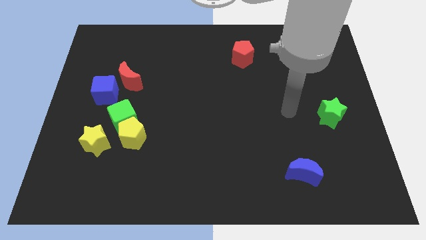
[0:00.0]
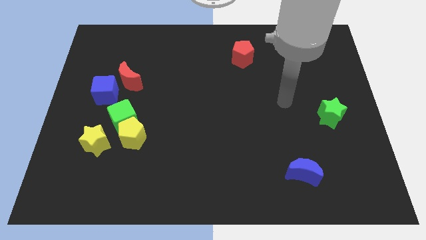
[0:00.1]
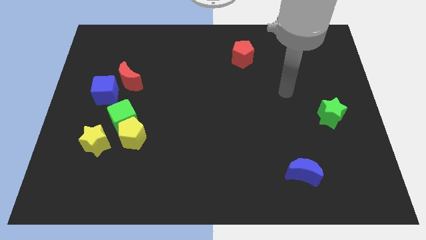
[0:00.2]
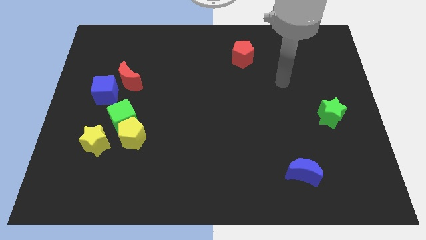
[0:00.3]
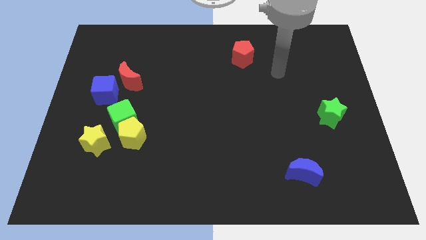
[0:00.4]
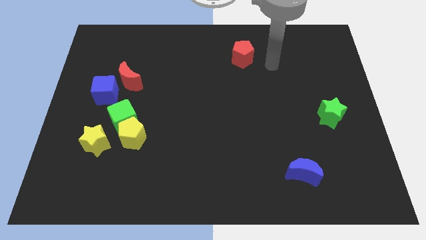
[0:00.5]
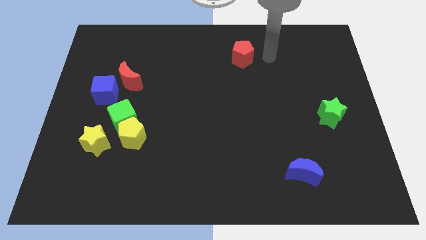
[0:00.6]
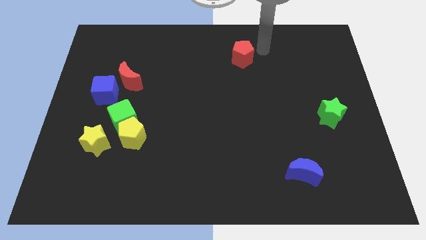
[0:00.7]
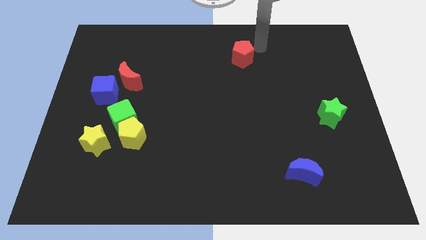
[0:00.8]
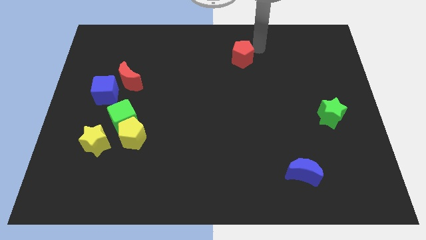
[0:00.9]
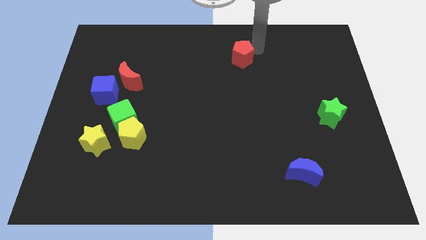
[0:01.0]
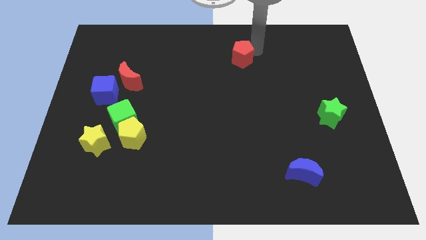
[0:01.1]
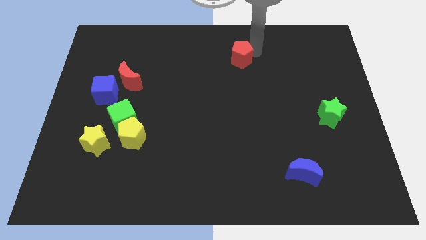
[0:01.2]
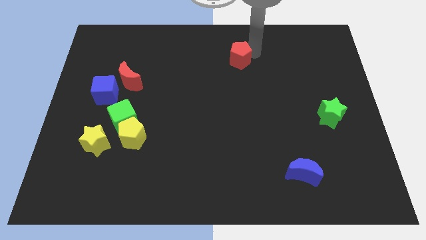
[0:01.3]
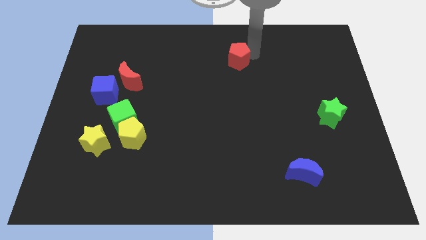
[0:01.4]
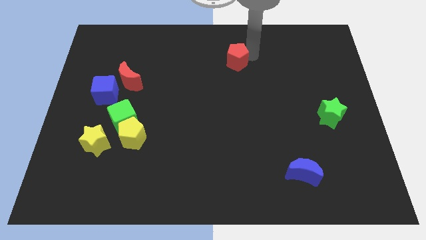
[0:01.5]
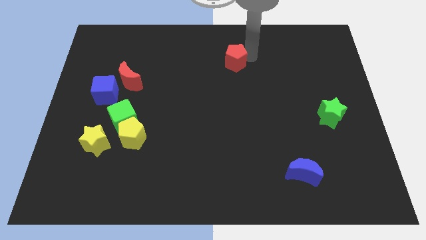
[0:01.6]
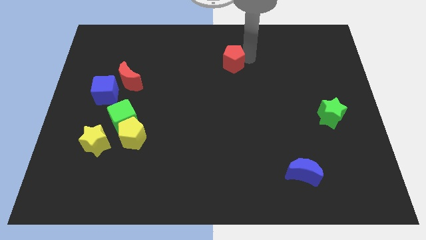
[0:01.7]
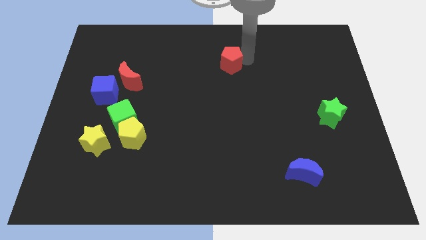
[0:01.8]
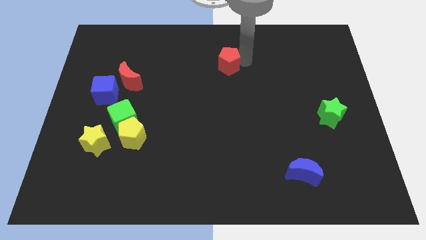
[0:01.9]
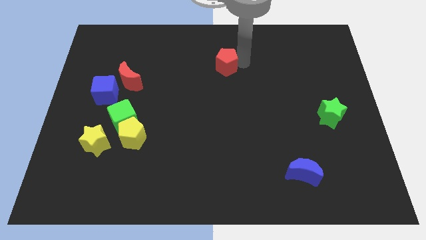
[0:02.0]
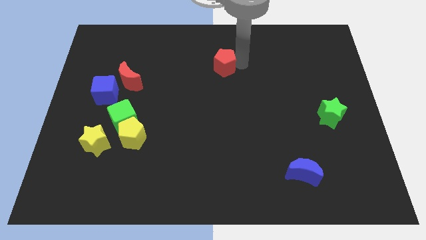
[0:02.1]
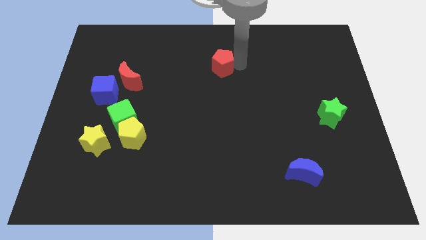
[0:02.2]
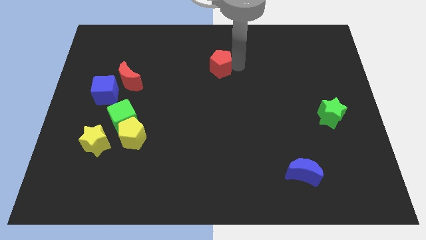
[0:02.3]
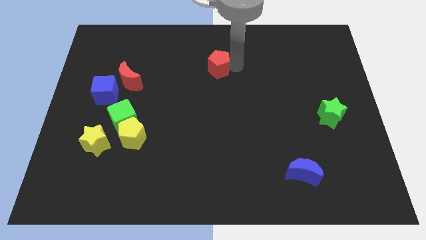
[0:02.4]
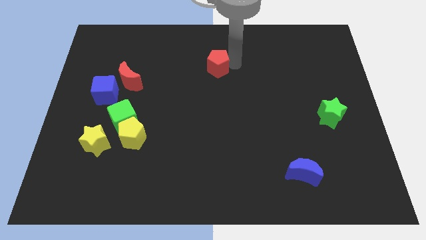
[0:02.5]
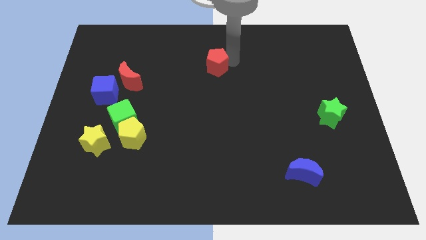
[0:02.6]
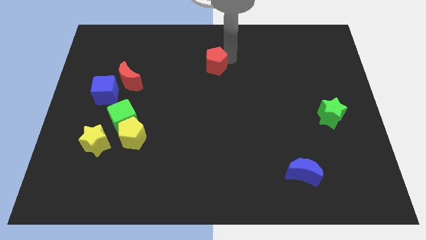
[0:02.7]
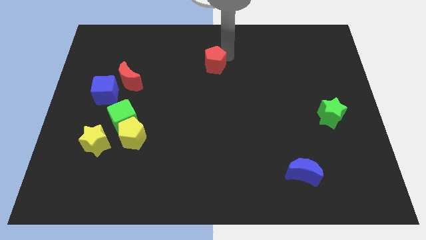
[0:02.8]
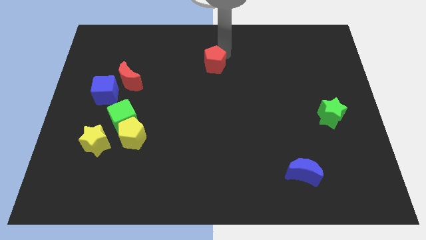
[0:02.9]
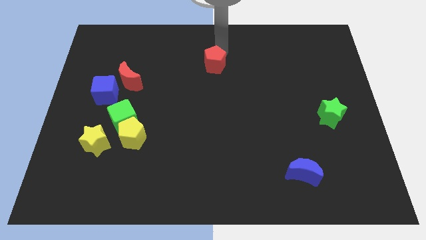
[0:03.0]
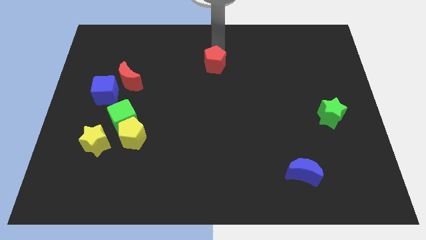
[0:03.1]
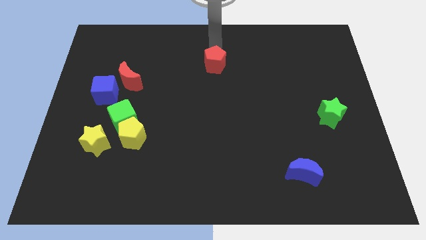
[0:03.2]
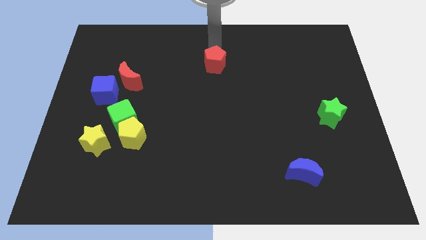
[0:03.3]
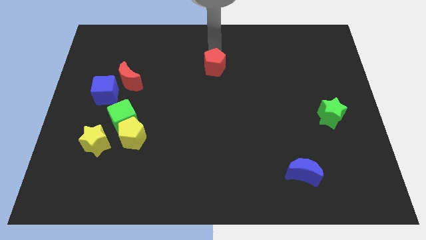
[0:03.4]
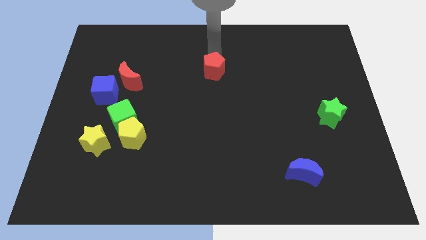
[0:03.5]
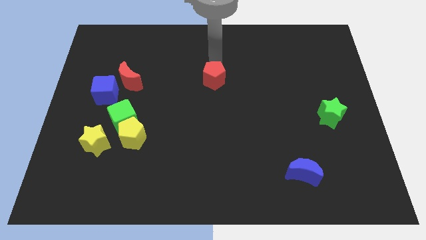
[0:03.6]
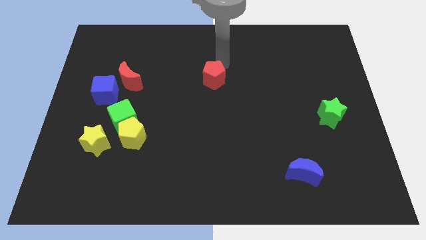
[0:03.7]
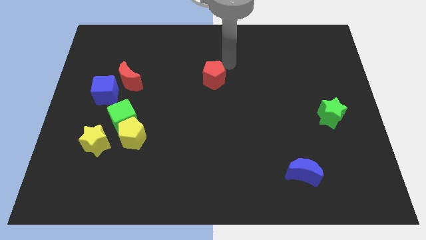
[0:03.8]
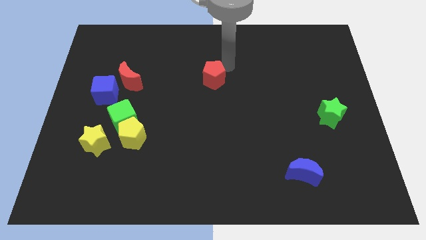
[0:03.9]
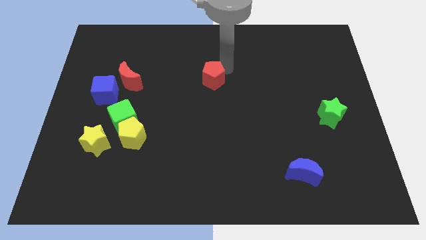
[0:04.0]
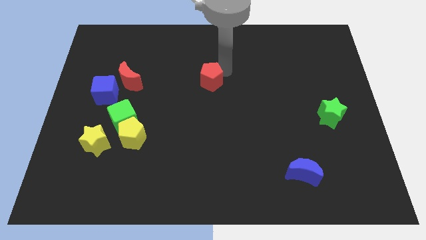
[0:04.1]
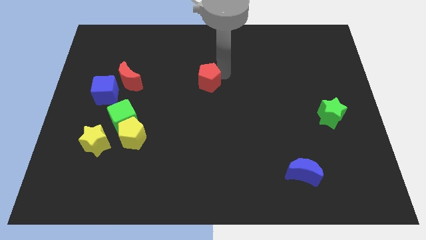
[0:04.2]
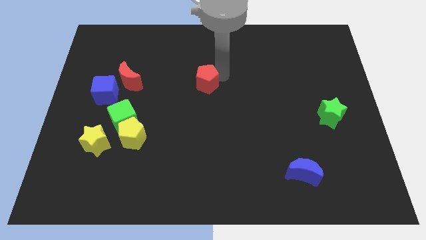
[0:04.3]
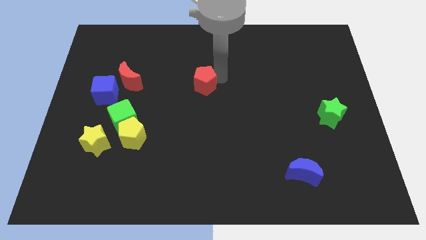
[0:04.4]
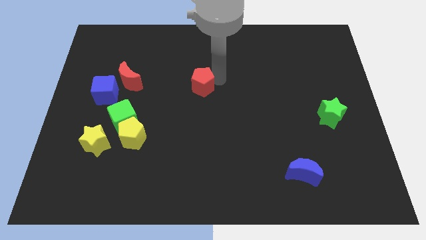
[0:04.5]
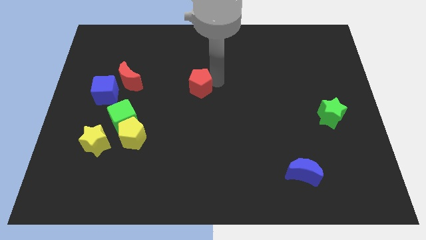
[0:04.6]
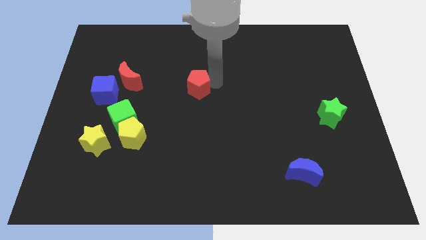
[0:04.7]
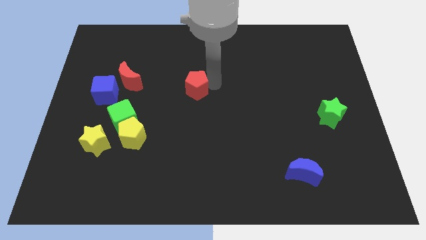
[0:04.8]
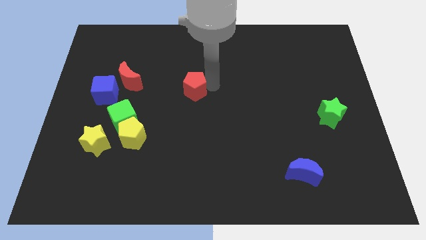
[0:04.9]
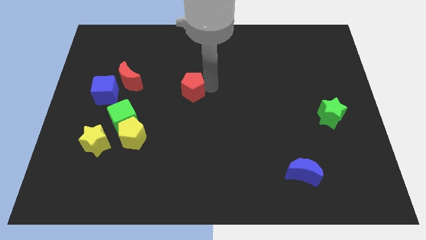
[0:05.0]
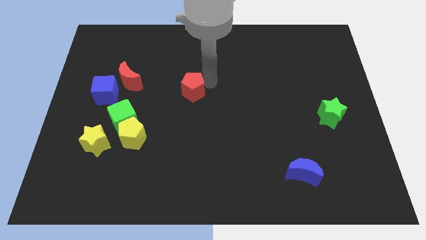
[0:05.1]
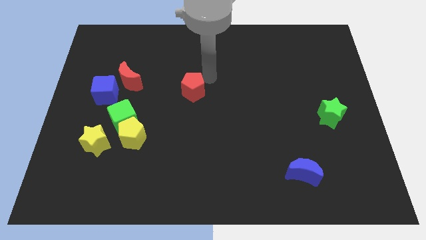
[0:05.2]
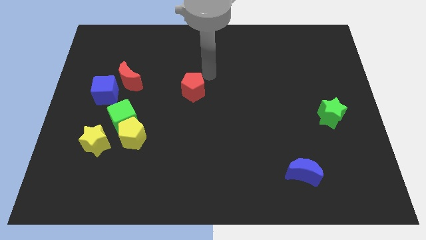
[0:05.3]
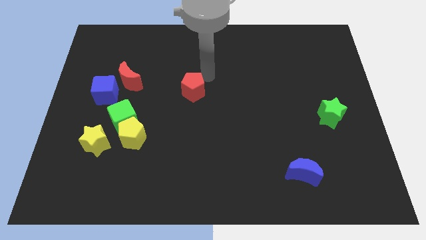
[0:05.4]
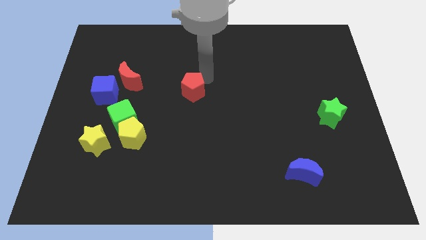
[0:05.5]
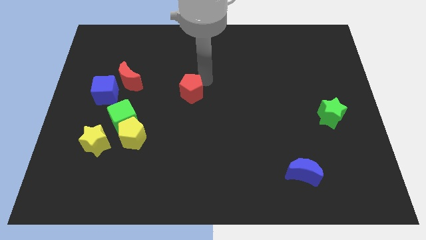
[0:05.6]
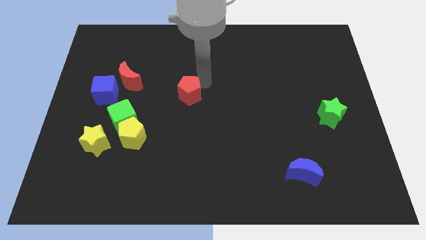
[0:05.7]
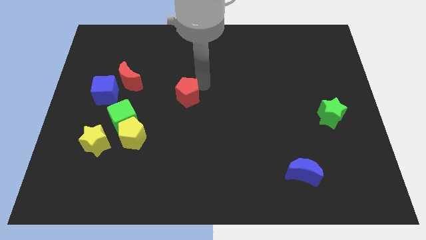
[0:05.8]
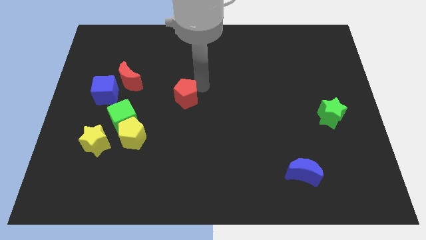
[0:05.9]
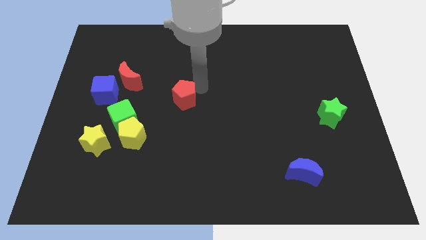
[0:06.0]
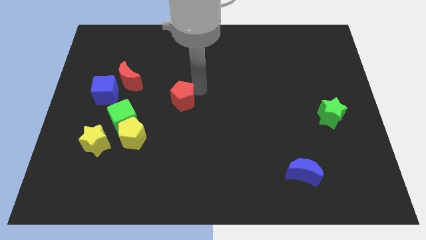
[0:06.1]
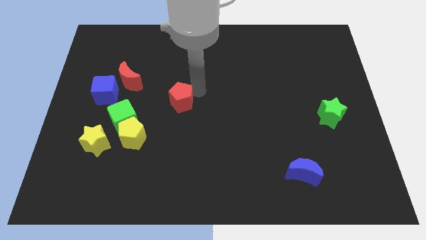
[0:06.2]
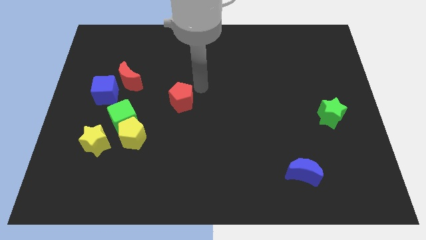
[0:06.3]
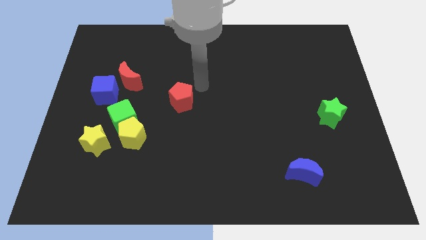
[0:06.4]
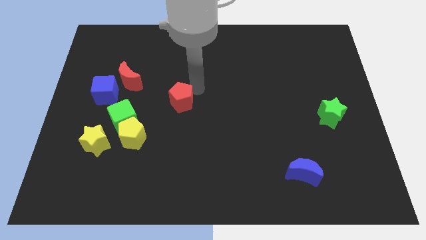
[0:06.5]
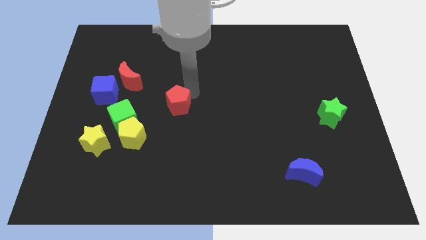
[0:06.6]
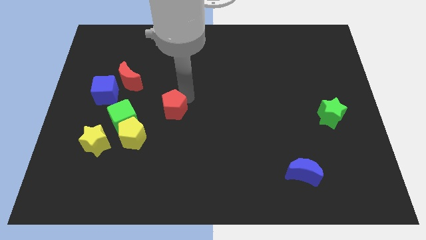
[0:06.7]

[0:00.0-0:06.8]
push the red pentagon diagonally up and to the right of the yellow pentagon

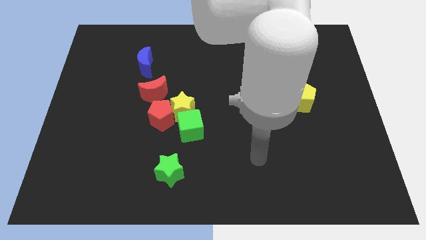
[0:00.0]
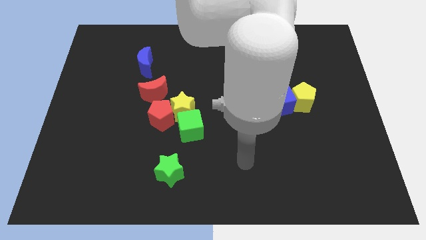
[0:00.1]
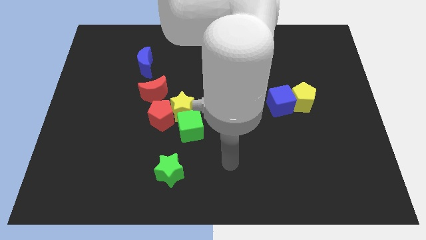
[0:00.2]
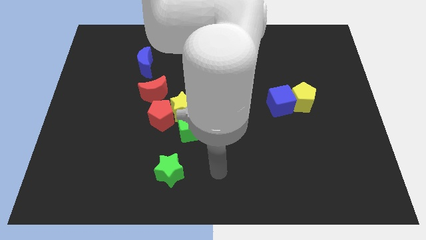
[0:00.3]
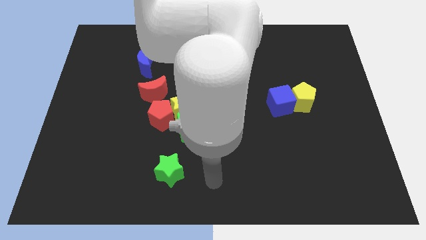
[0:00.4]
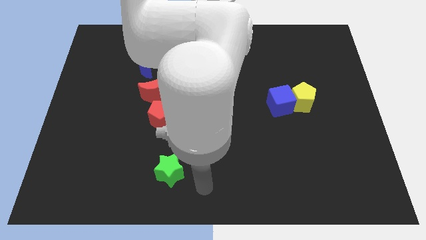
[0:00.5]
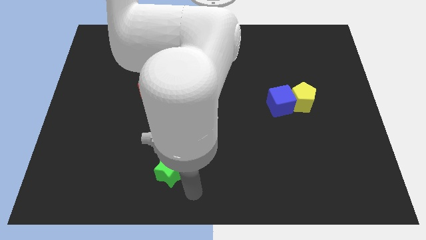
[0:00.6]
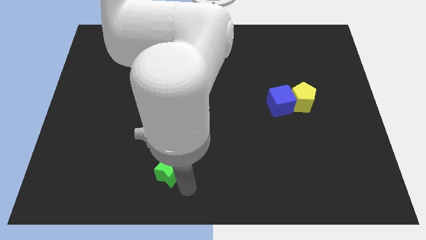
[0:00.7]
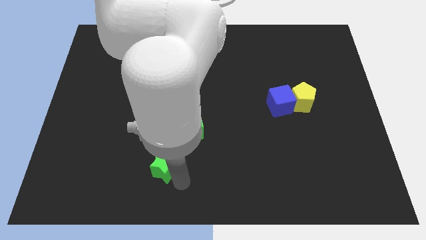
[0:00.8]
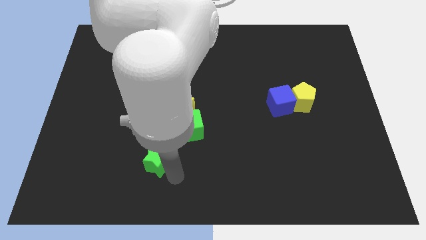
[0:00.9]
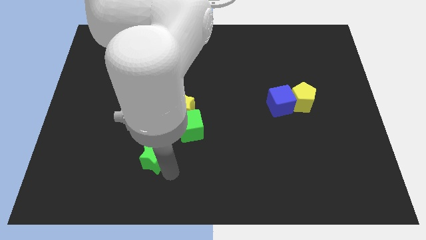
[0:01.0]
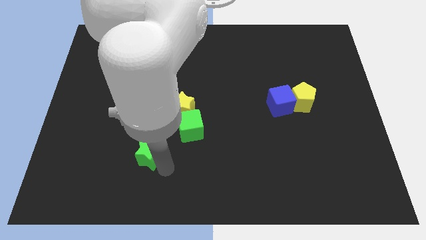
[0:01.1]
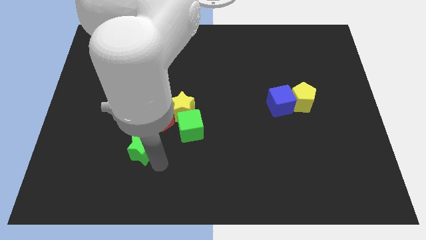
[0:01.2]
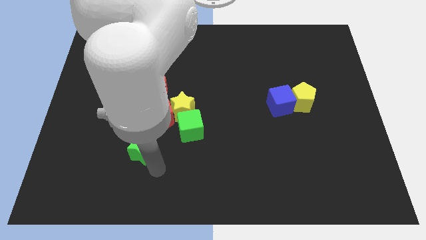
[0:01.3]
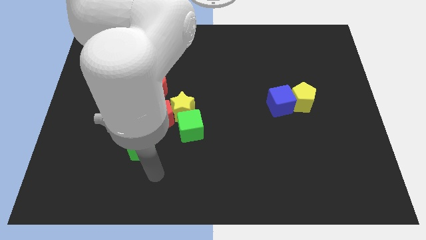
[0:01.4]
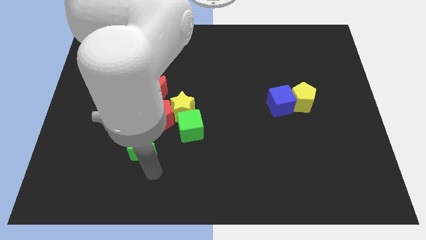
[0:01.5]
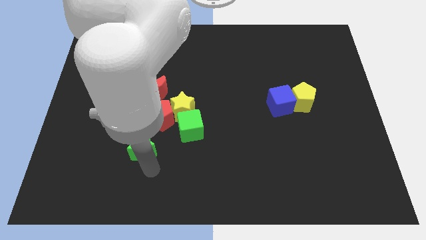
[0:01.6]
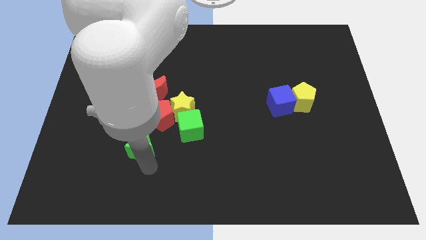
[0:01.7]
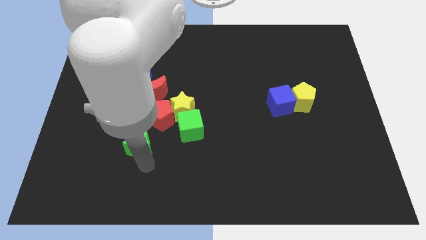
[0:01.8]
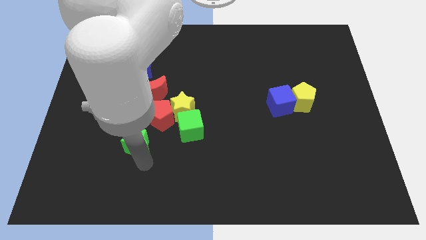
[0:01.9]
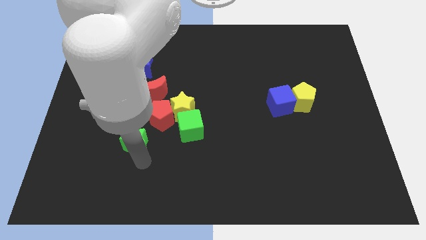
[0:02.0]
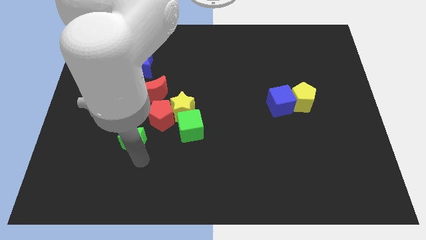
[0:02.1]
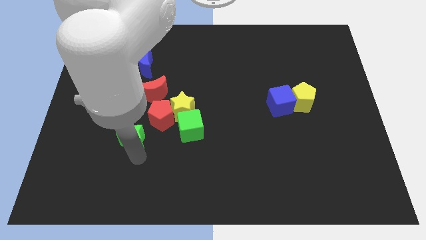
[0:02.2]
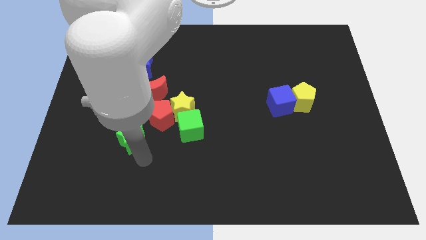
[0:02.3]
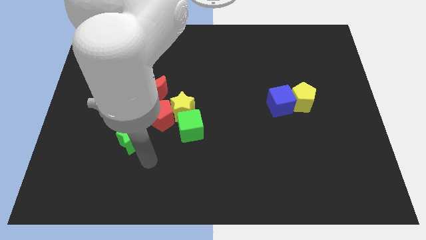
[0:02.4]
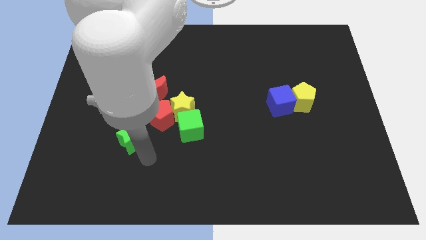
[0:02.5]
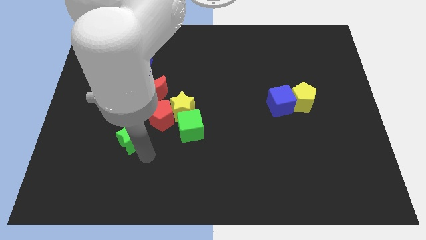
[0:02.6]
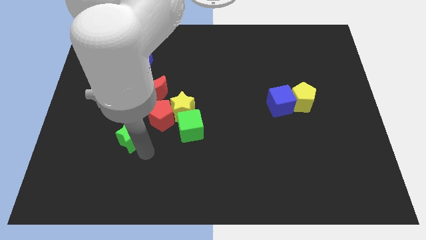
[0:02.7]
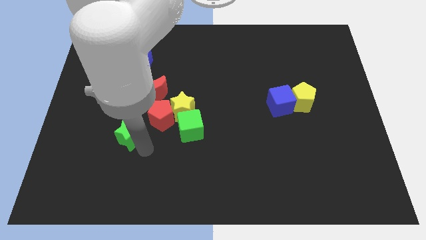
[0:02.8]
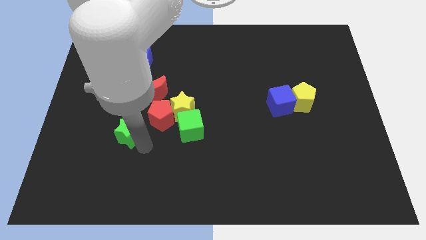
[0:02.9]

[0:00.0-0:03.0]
put the green star just left of the red pentagon
